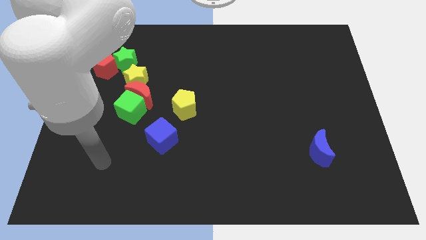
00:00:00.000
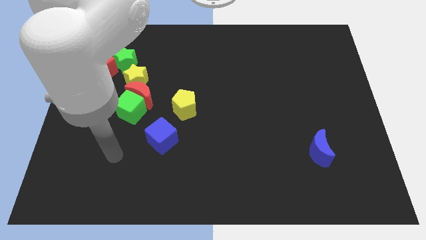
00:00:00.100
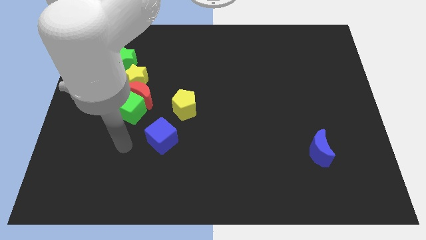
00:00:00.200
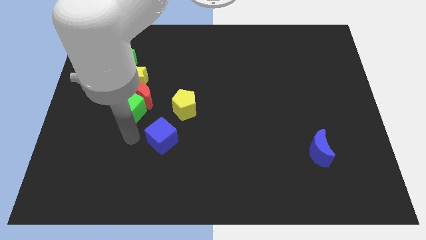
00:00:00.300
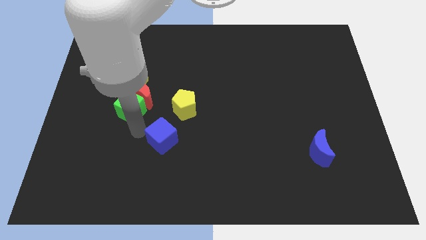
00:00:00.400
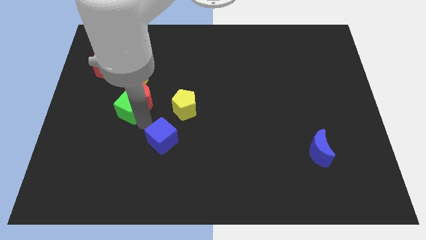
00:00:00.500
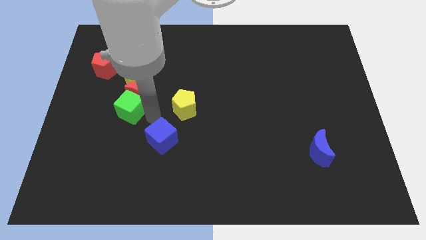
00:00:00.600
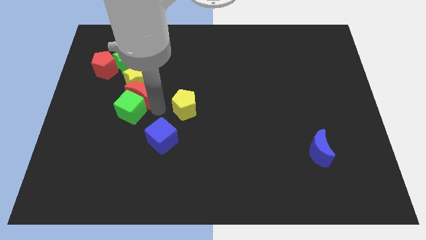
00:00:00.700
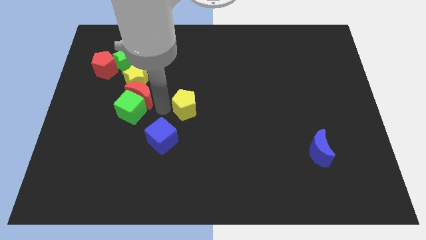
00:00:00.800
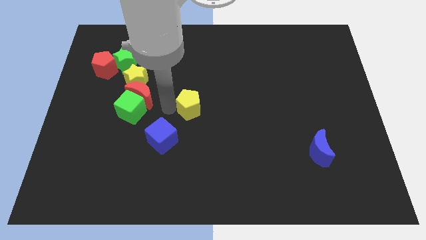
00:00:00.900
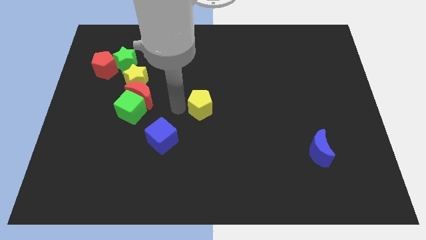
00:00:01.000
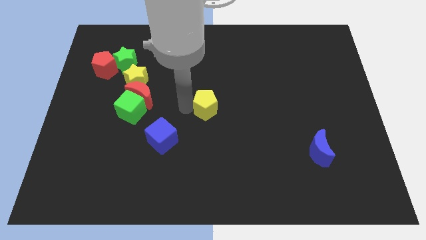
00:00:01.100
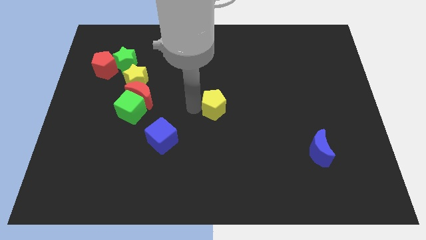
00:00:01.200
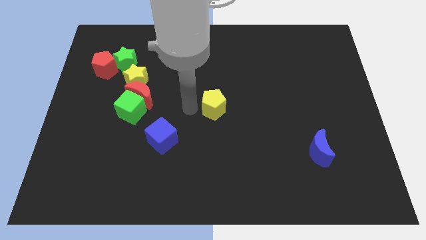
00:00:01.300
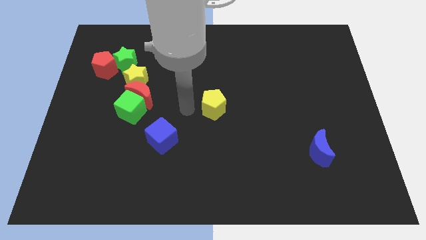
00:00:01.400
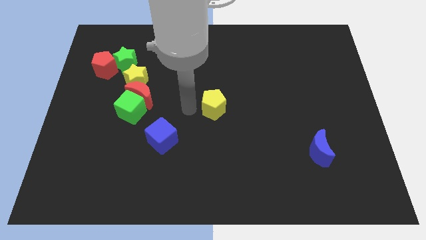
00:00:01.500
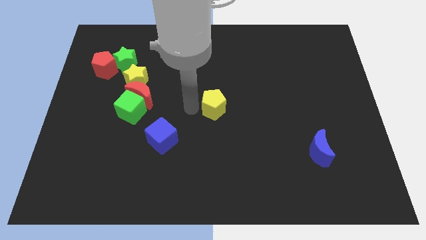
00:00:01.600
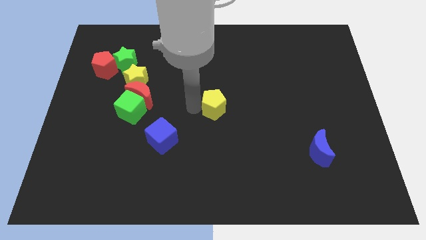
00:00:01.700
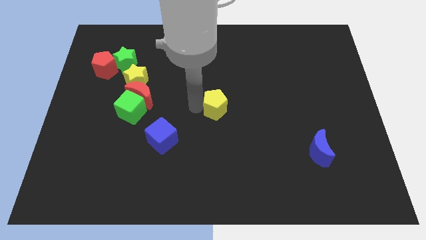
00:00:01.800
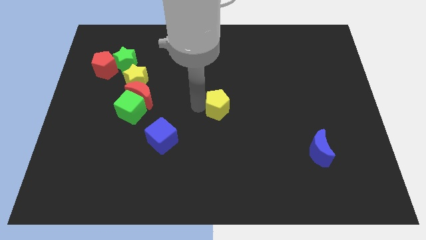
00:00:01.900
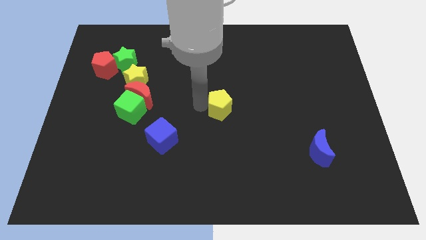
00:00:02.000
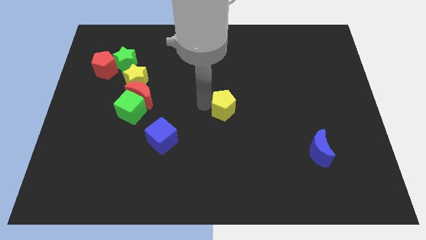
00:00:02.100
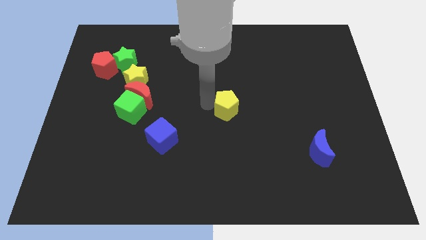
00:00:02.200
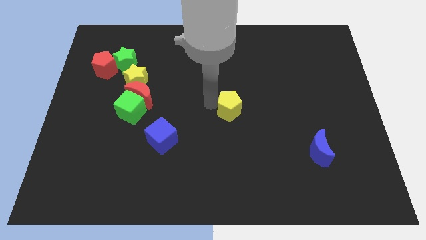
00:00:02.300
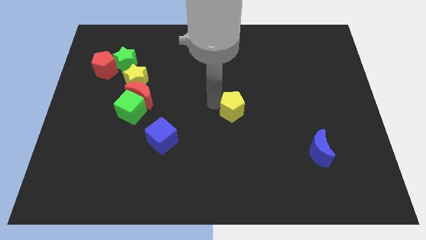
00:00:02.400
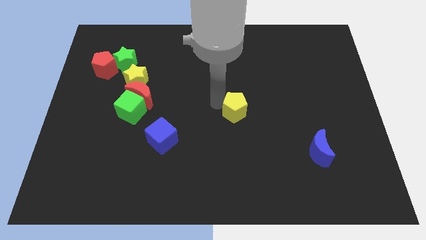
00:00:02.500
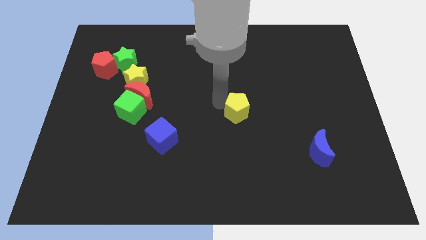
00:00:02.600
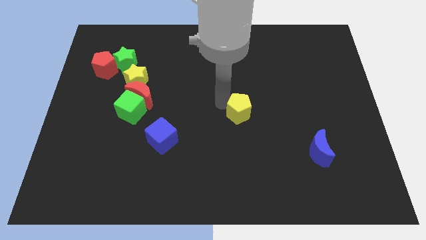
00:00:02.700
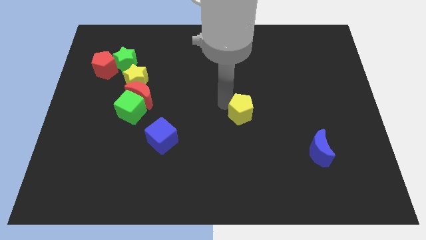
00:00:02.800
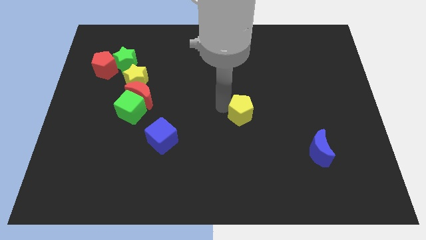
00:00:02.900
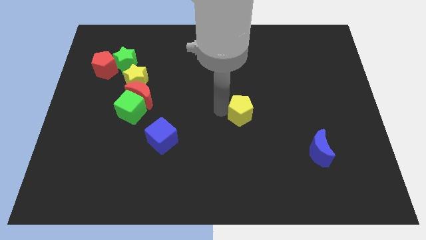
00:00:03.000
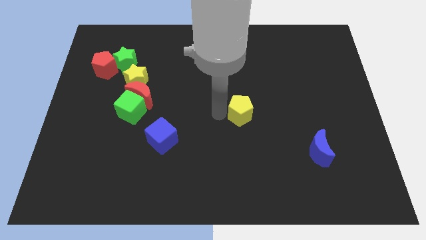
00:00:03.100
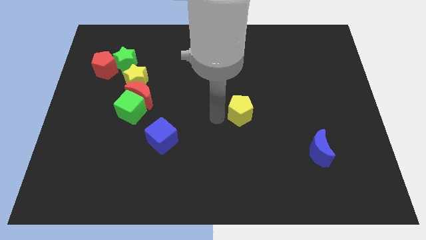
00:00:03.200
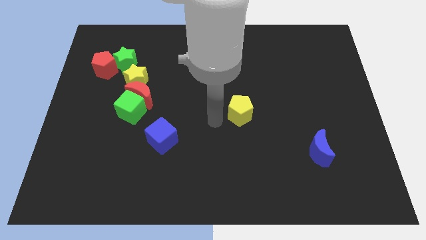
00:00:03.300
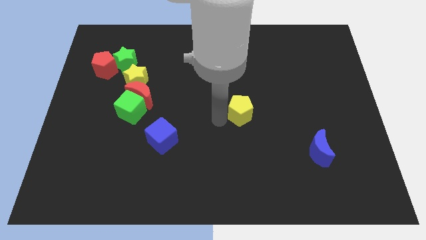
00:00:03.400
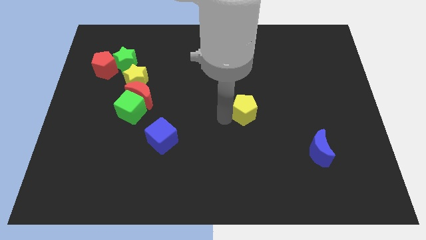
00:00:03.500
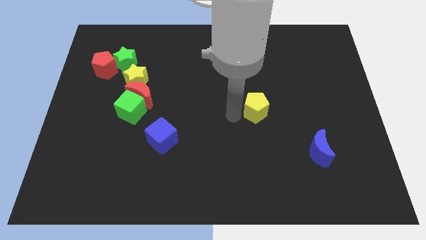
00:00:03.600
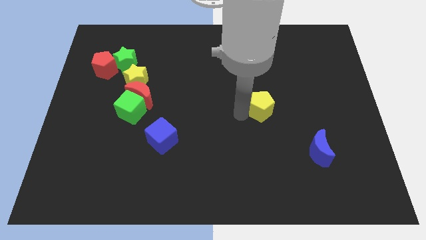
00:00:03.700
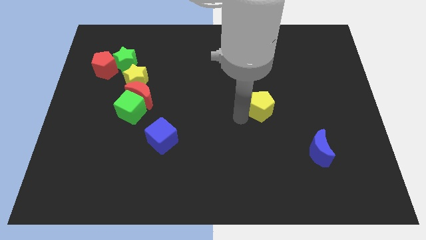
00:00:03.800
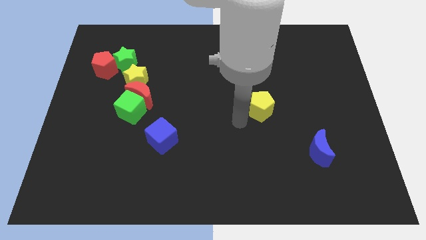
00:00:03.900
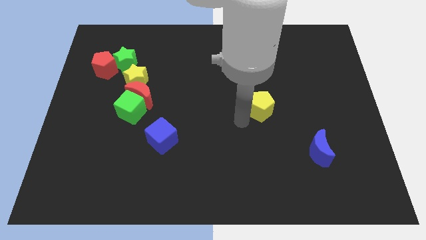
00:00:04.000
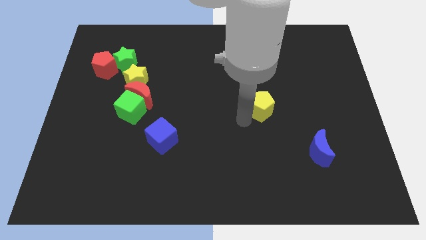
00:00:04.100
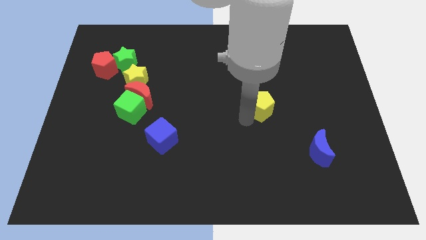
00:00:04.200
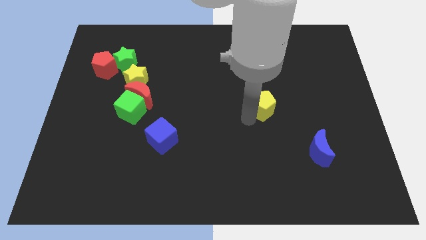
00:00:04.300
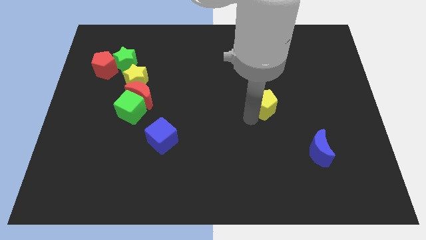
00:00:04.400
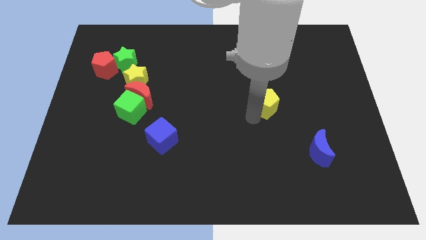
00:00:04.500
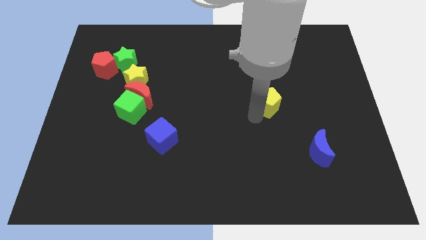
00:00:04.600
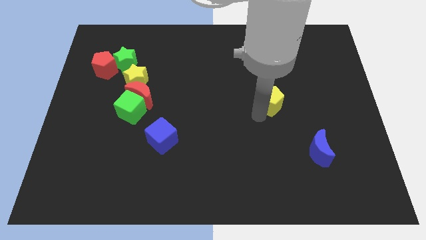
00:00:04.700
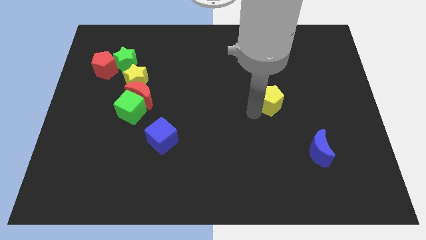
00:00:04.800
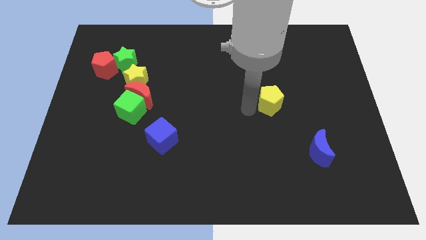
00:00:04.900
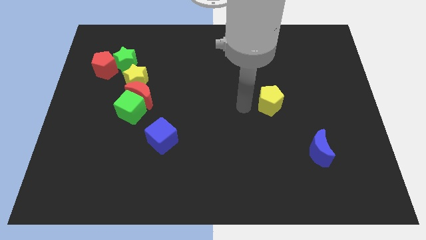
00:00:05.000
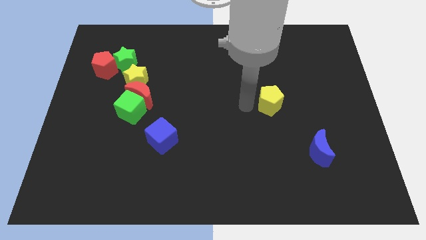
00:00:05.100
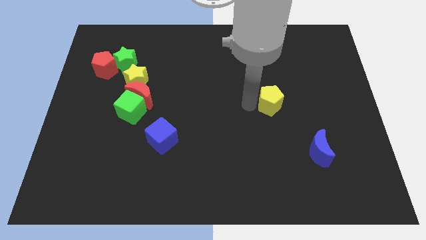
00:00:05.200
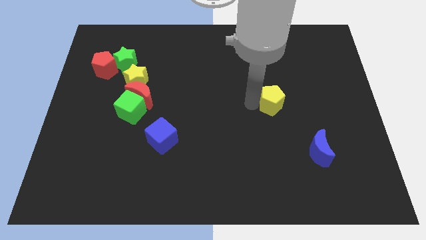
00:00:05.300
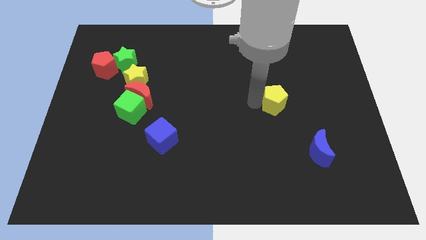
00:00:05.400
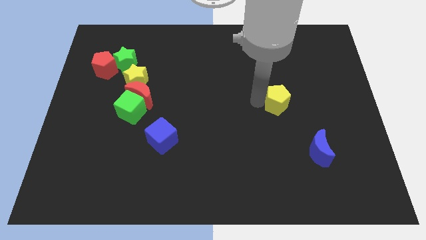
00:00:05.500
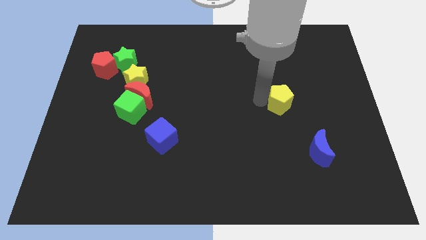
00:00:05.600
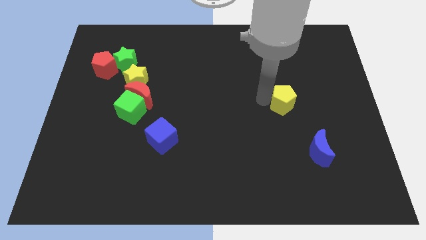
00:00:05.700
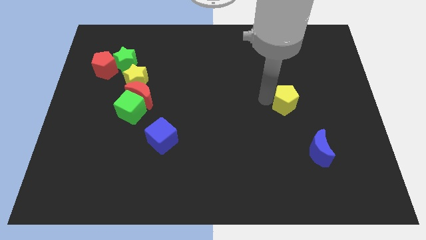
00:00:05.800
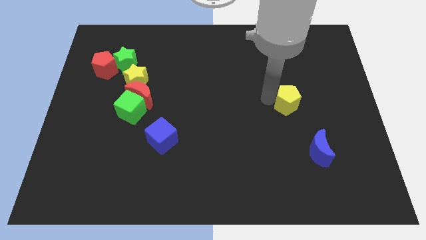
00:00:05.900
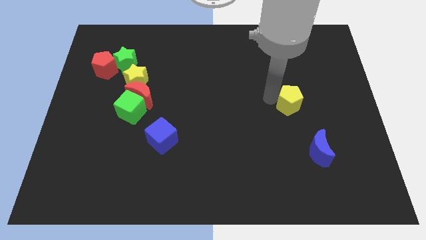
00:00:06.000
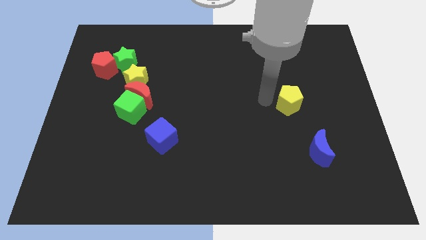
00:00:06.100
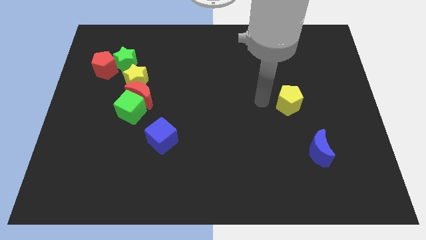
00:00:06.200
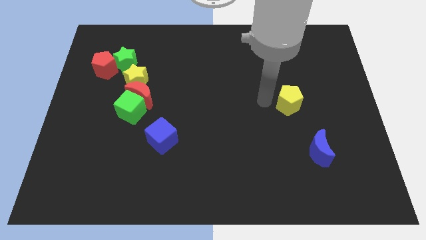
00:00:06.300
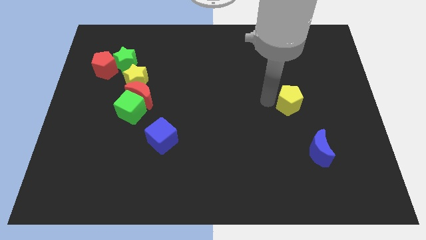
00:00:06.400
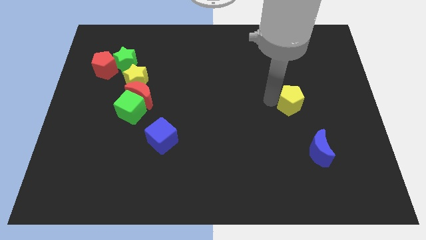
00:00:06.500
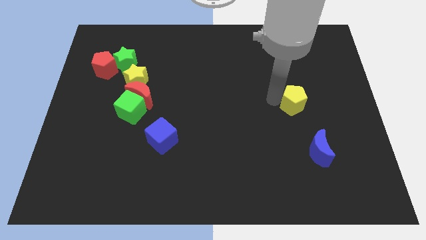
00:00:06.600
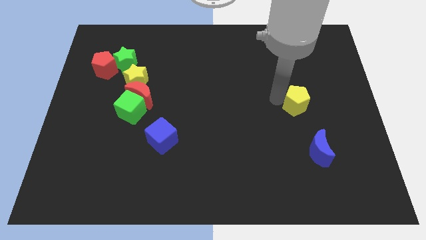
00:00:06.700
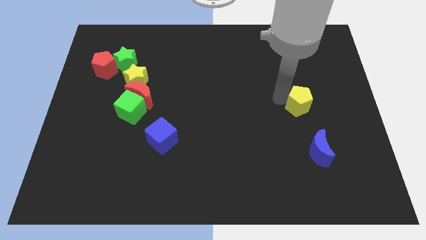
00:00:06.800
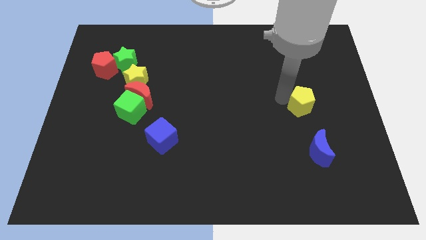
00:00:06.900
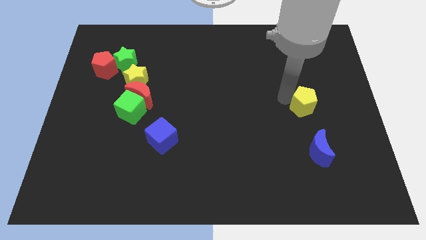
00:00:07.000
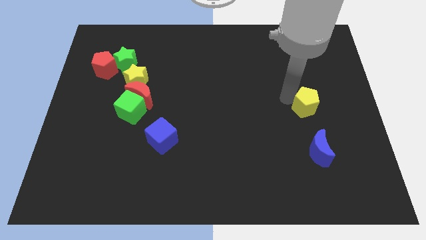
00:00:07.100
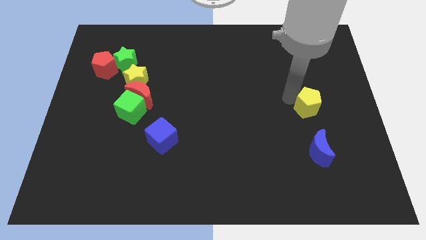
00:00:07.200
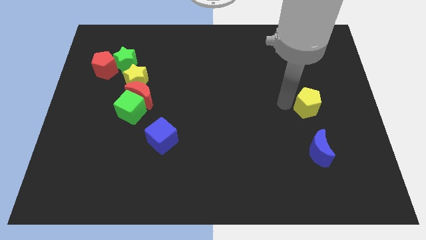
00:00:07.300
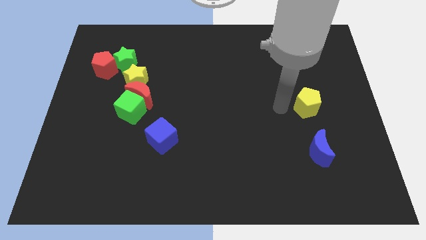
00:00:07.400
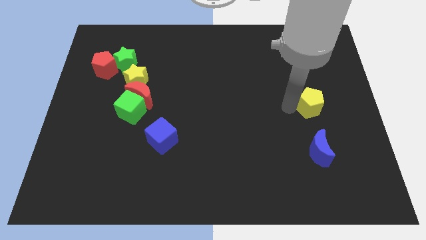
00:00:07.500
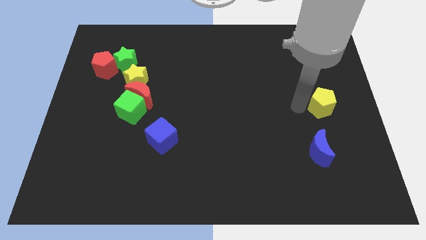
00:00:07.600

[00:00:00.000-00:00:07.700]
move the yellow pentagon to the right side
